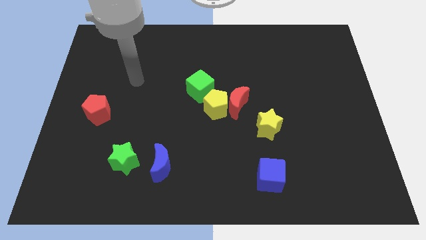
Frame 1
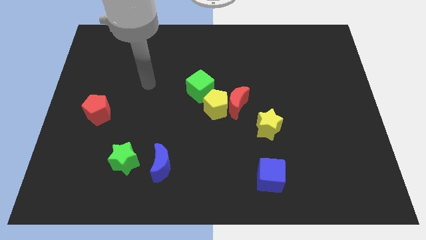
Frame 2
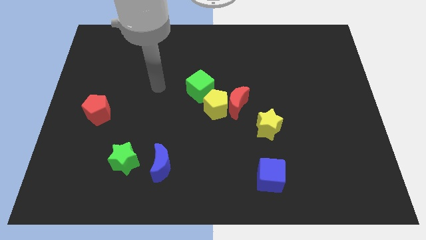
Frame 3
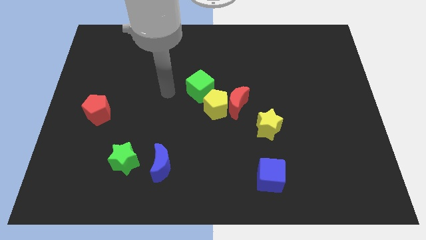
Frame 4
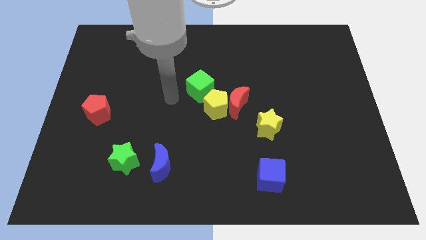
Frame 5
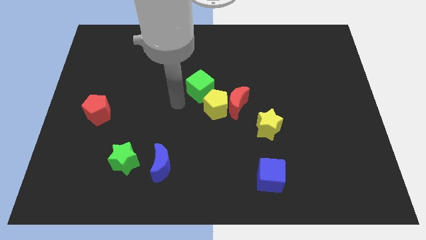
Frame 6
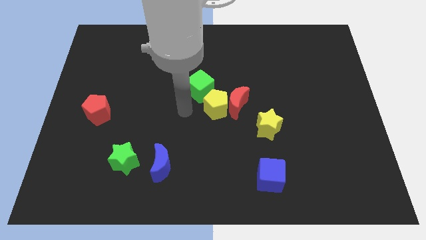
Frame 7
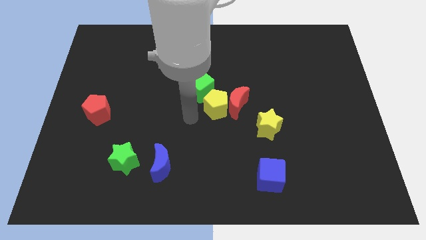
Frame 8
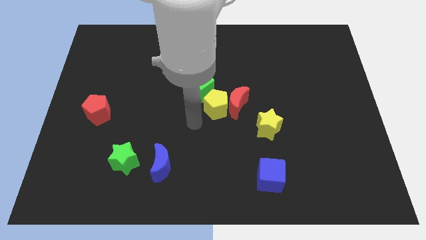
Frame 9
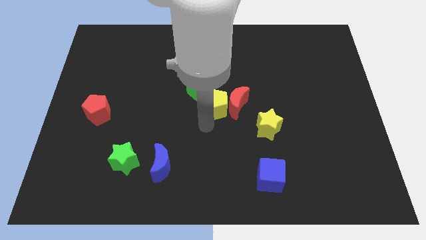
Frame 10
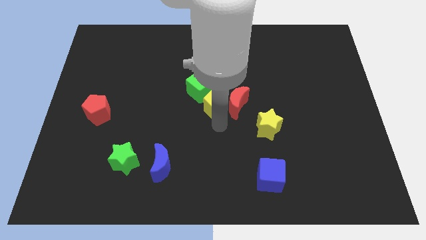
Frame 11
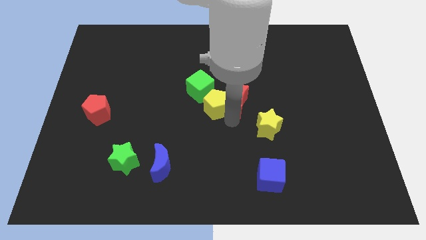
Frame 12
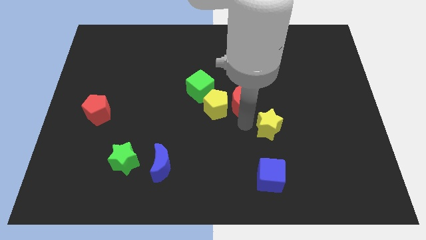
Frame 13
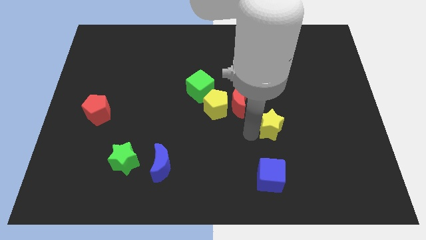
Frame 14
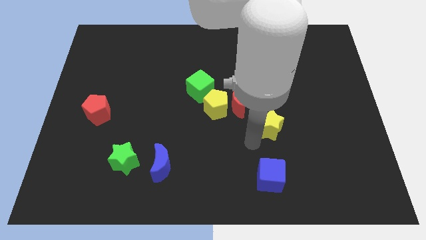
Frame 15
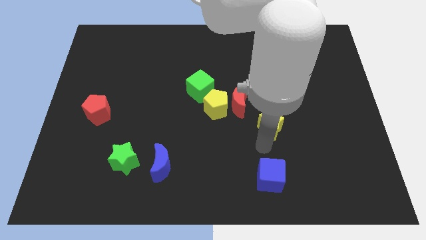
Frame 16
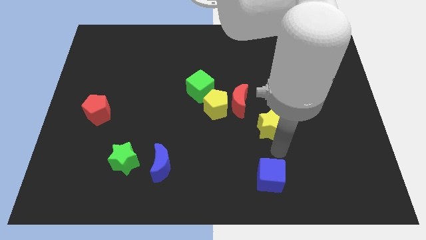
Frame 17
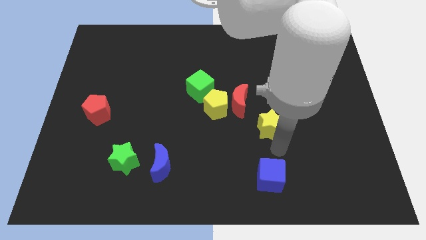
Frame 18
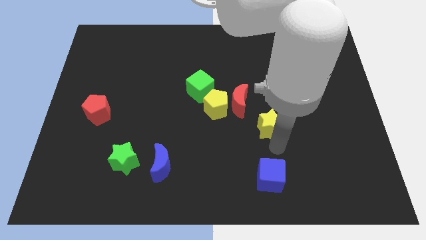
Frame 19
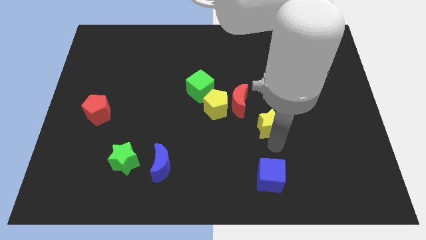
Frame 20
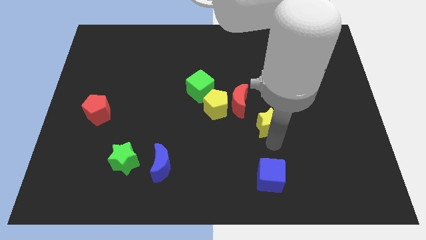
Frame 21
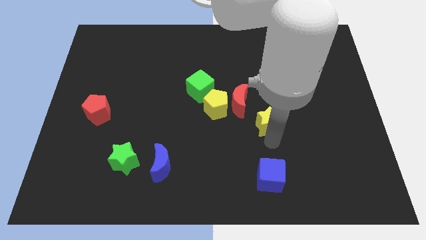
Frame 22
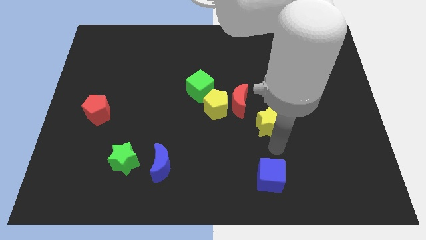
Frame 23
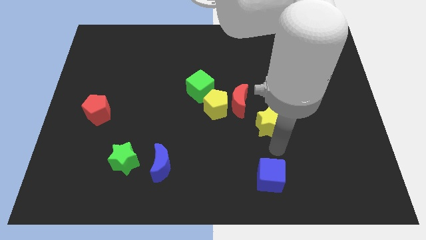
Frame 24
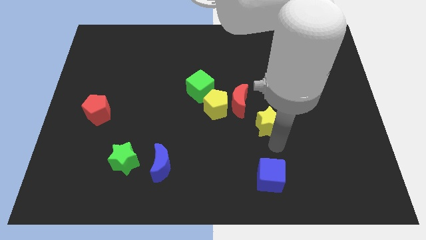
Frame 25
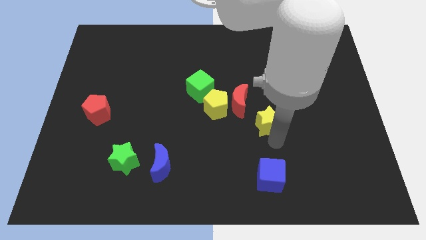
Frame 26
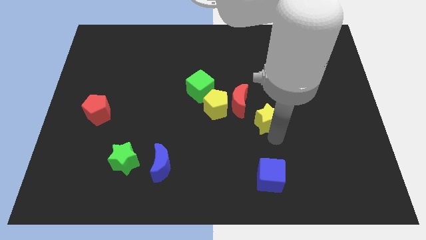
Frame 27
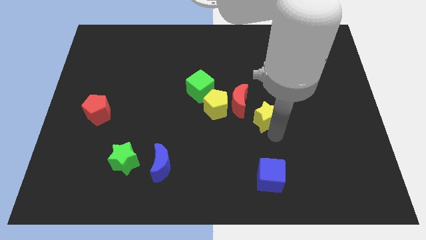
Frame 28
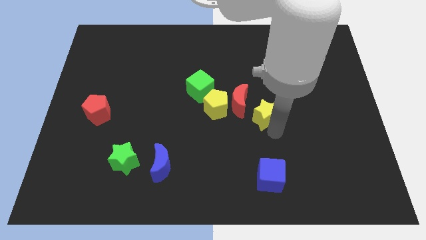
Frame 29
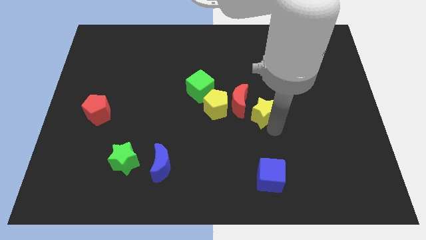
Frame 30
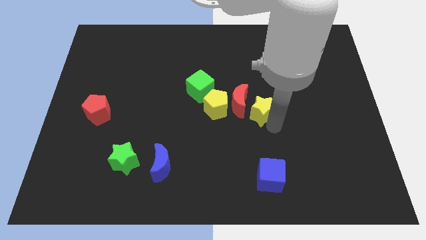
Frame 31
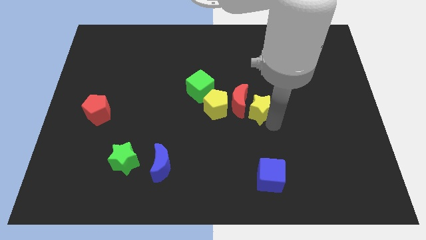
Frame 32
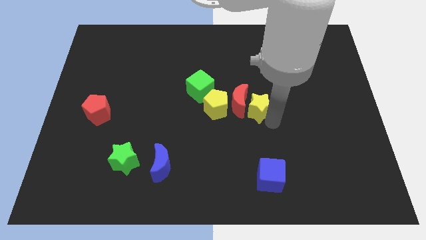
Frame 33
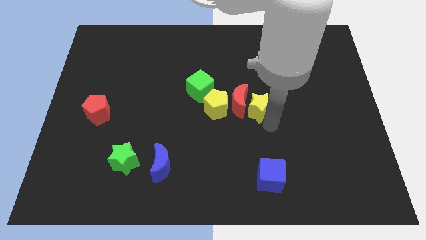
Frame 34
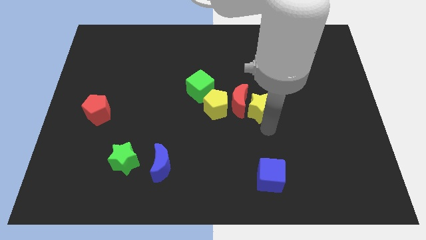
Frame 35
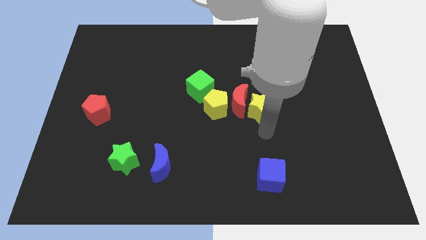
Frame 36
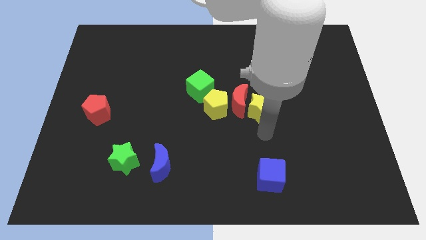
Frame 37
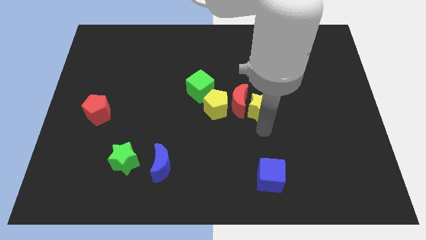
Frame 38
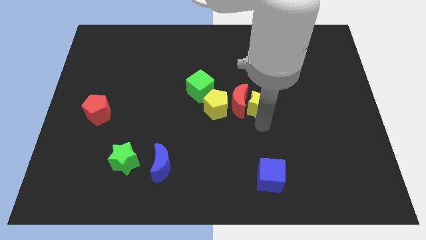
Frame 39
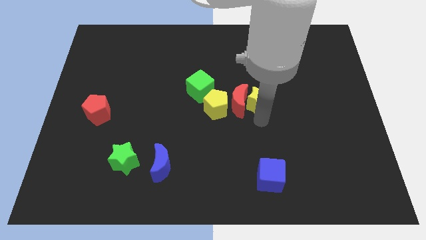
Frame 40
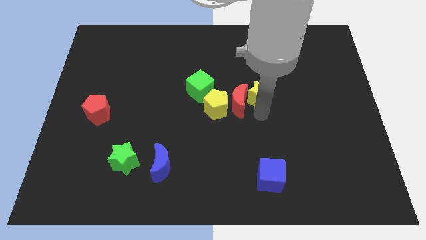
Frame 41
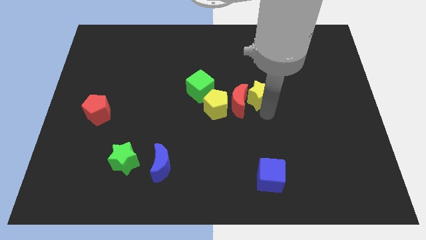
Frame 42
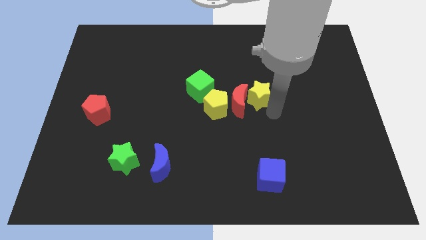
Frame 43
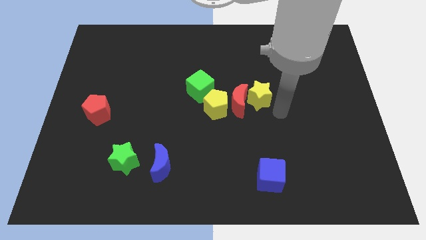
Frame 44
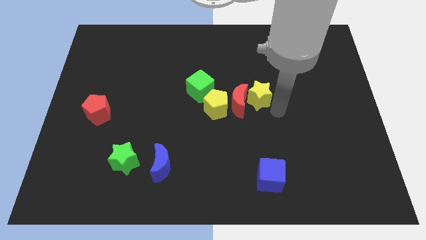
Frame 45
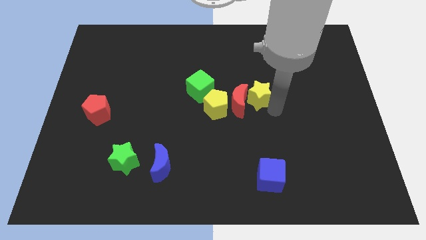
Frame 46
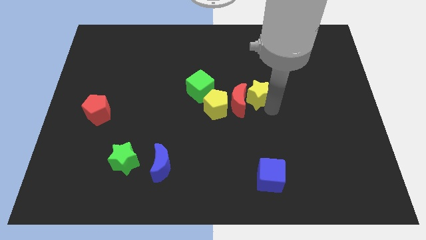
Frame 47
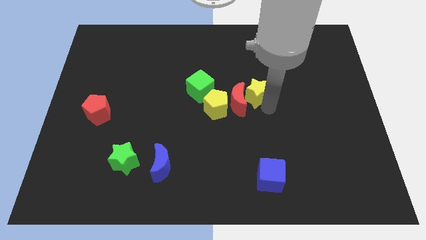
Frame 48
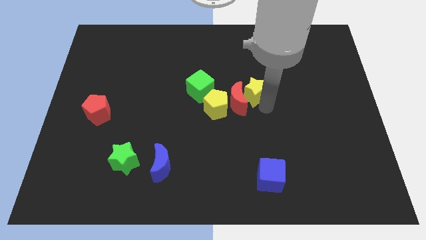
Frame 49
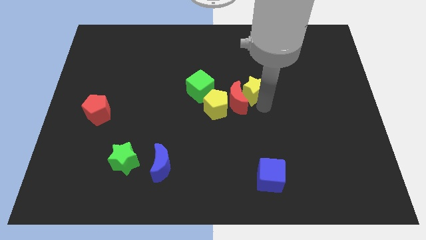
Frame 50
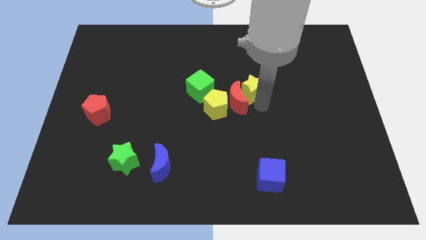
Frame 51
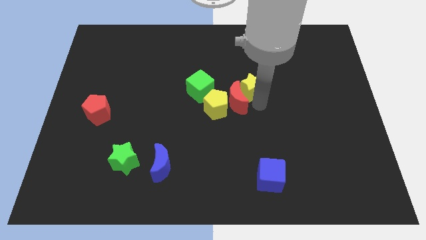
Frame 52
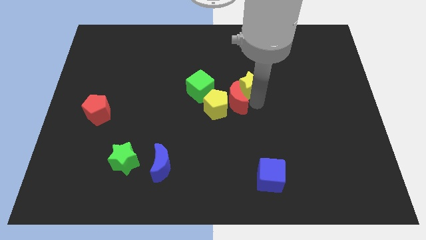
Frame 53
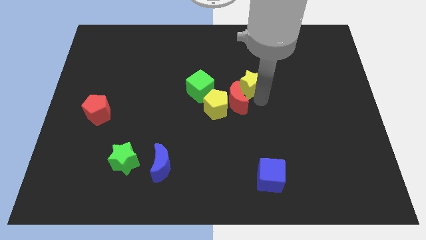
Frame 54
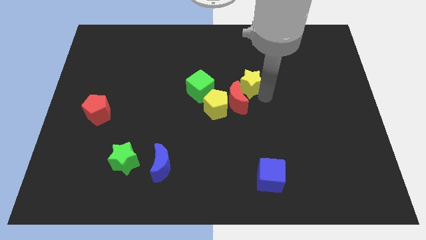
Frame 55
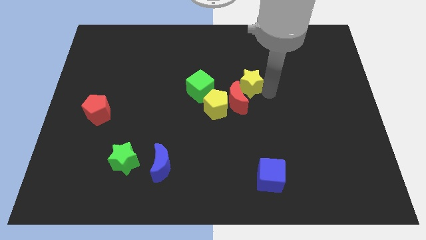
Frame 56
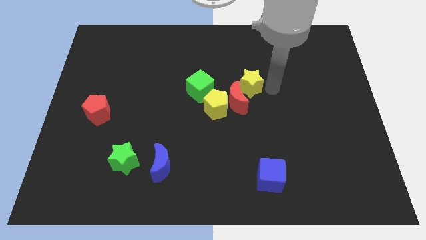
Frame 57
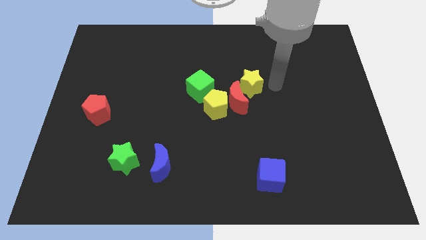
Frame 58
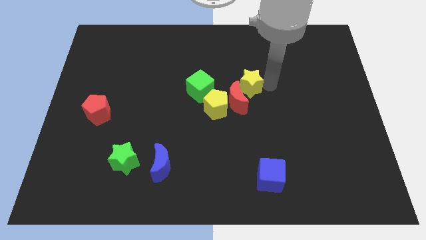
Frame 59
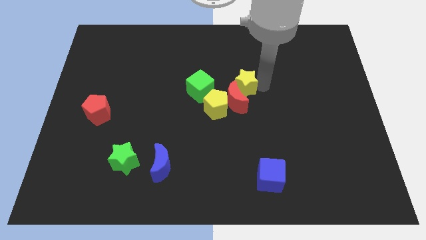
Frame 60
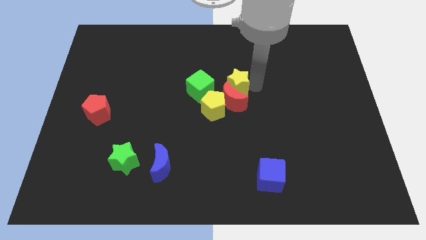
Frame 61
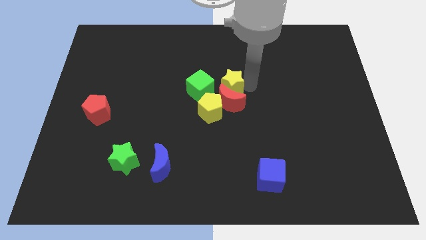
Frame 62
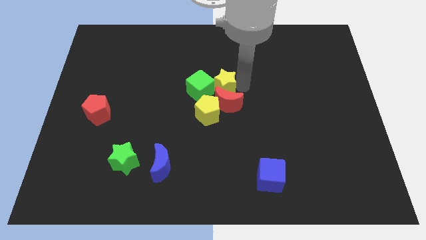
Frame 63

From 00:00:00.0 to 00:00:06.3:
push the yellow star to the green cube

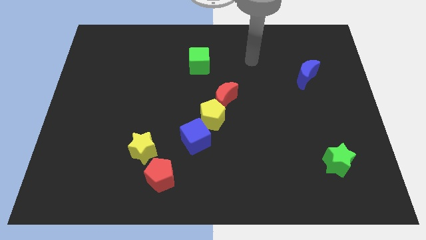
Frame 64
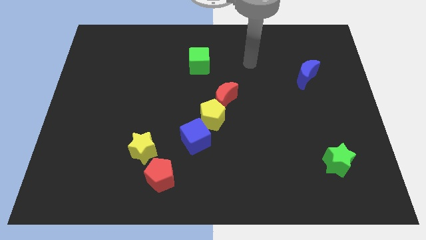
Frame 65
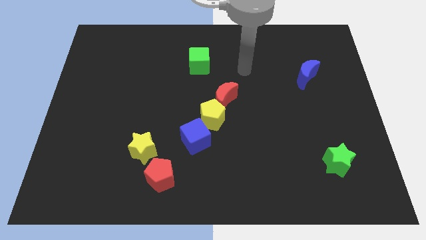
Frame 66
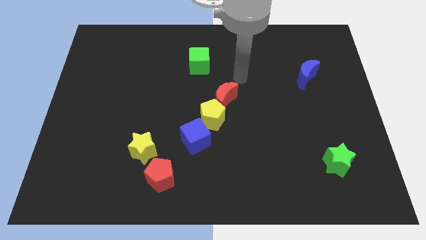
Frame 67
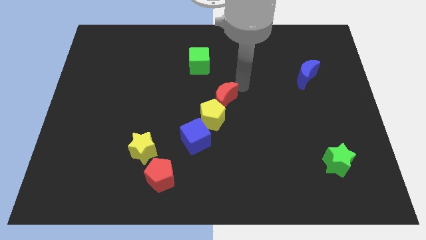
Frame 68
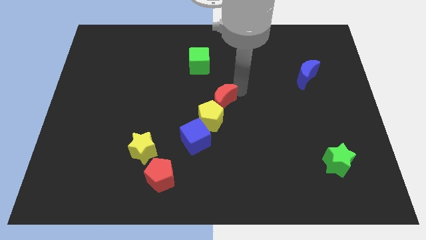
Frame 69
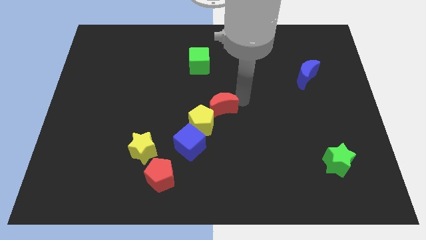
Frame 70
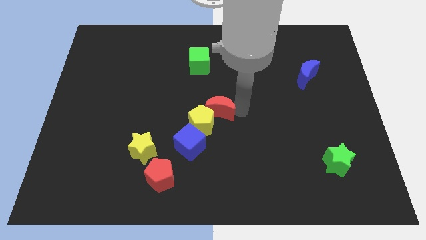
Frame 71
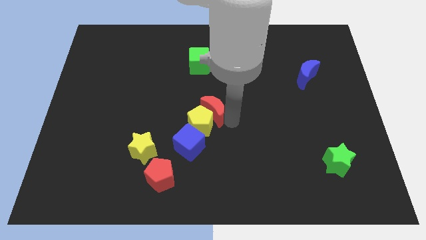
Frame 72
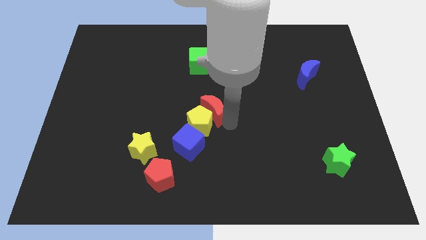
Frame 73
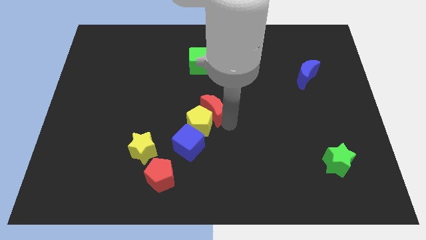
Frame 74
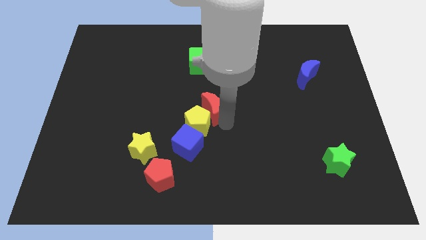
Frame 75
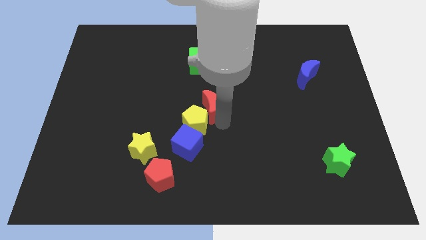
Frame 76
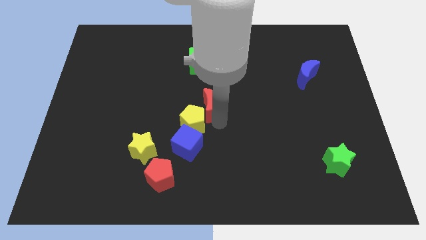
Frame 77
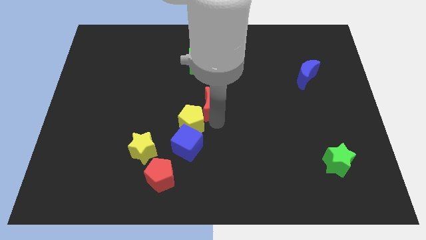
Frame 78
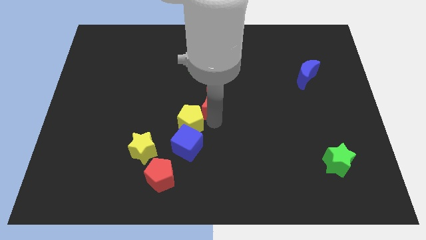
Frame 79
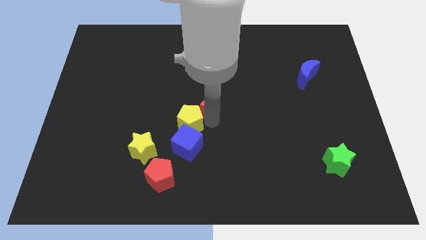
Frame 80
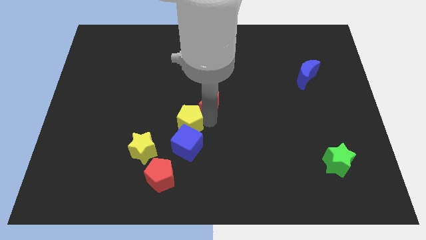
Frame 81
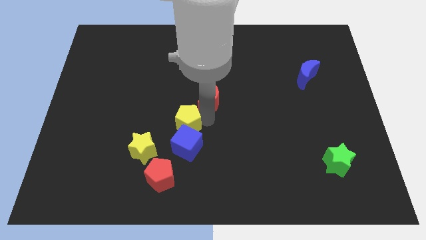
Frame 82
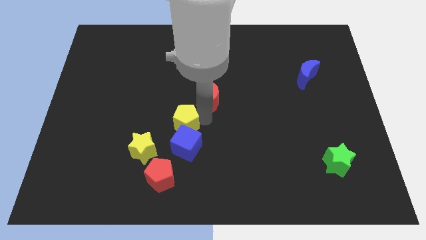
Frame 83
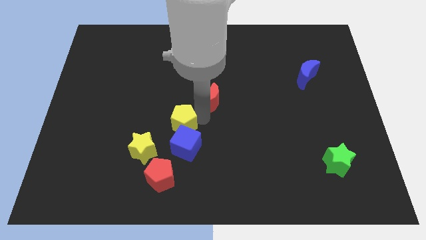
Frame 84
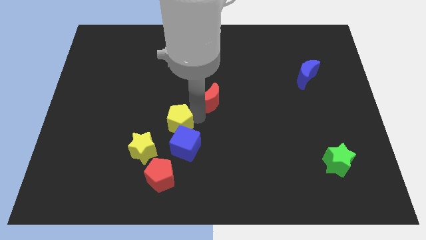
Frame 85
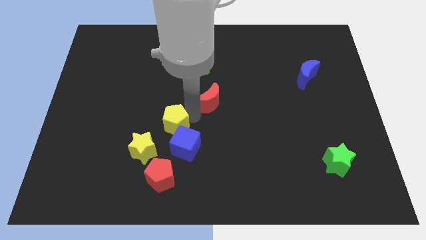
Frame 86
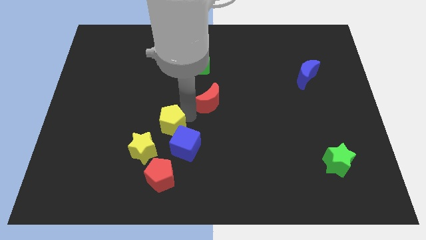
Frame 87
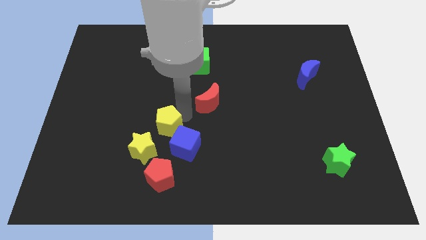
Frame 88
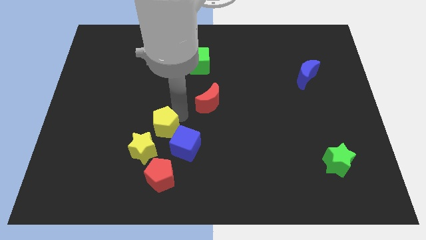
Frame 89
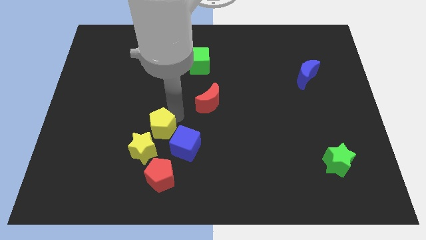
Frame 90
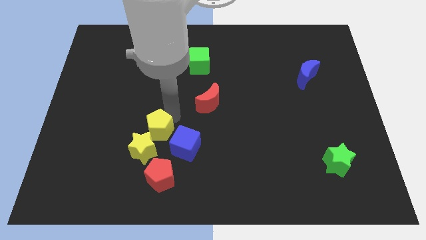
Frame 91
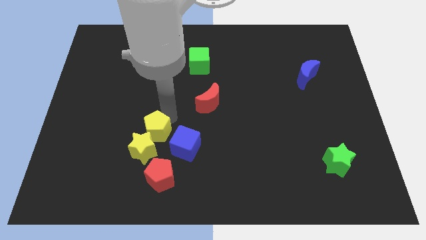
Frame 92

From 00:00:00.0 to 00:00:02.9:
slide the yellow pentagon close to the yellow star
